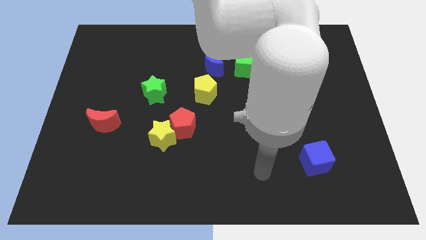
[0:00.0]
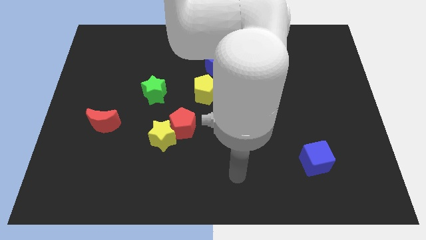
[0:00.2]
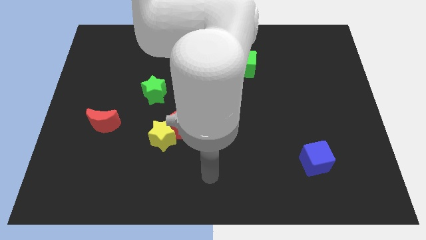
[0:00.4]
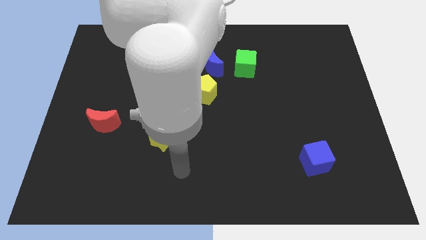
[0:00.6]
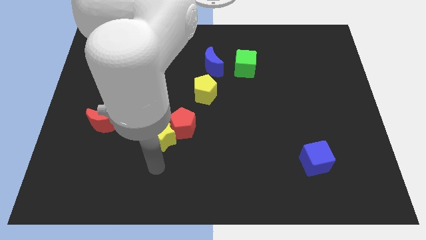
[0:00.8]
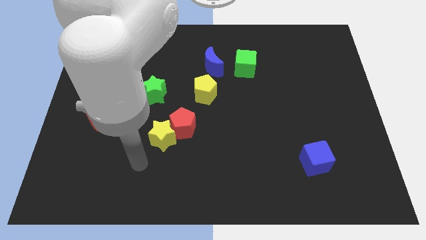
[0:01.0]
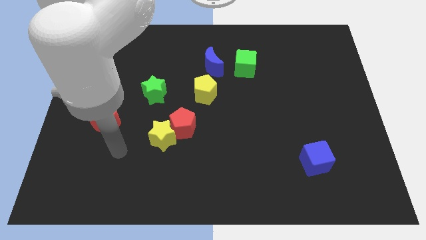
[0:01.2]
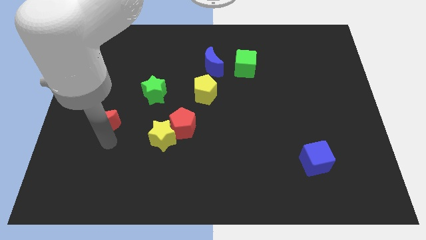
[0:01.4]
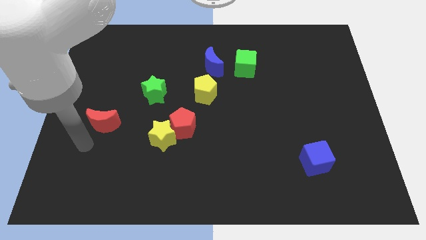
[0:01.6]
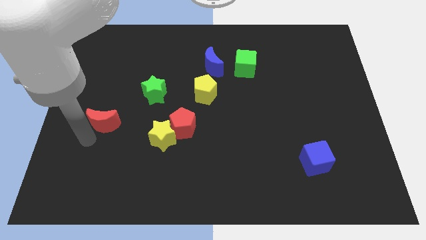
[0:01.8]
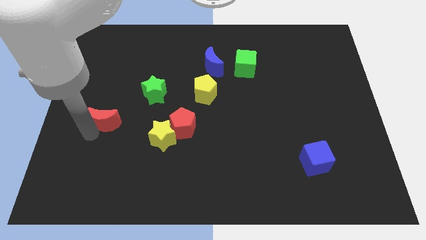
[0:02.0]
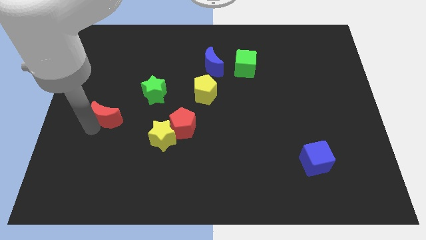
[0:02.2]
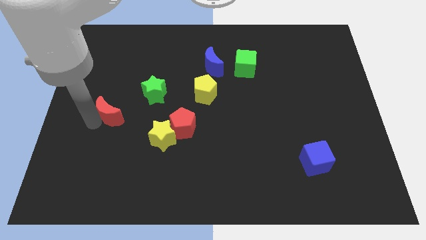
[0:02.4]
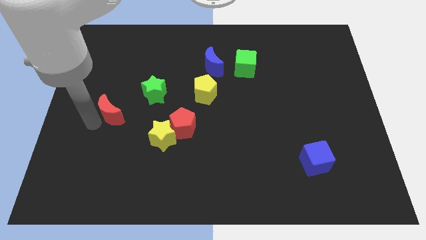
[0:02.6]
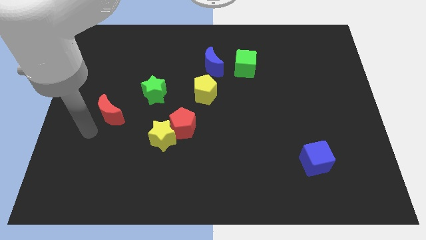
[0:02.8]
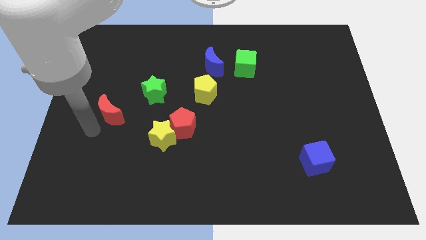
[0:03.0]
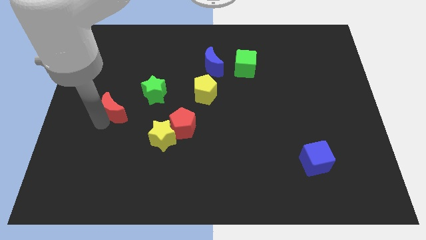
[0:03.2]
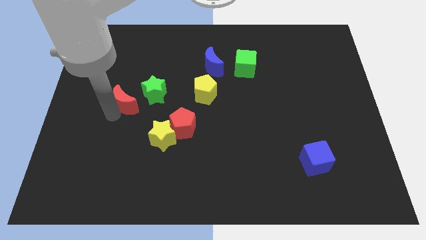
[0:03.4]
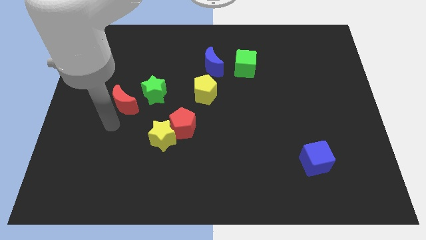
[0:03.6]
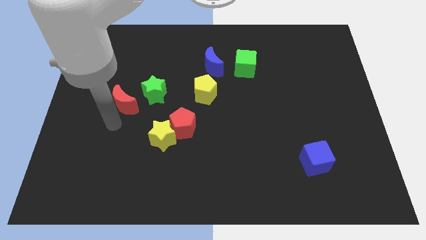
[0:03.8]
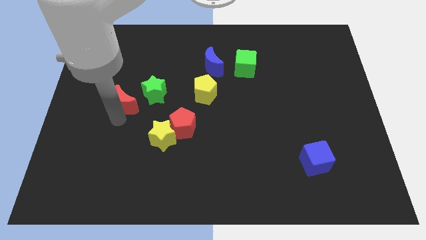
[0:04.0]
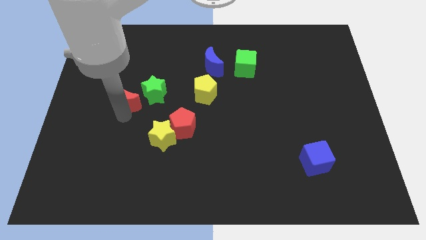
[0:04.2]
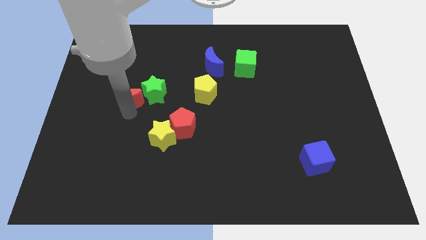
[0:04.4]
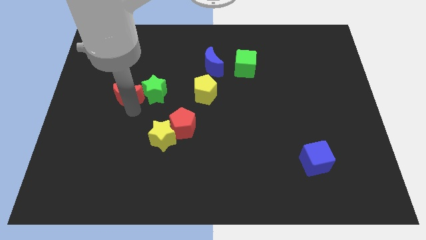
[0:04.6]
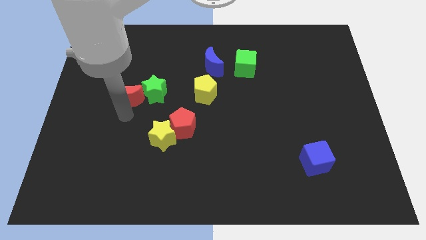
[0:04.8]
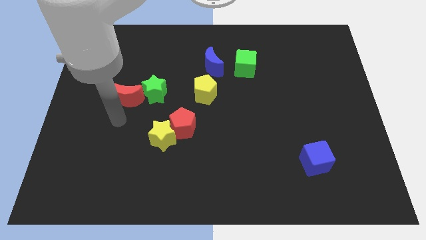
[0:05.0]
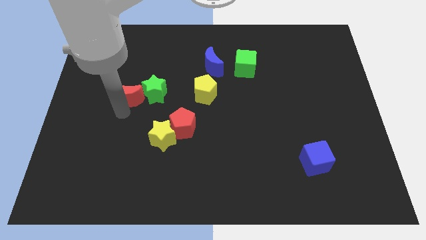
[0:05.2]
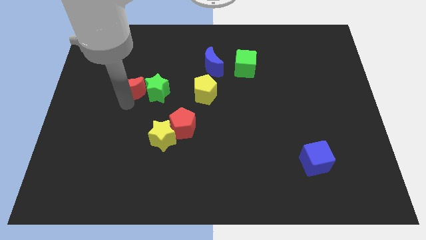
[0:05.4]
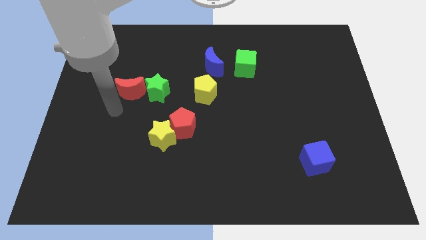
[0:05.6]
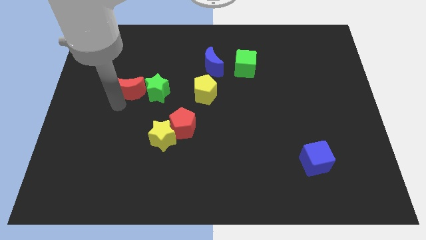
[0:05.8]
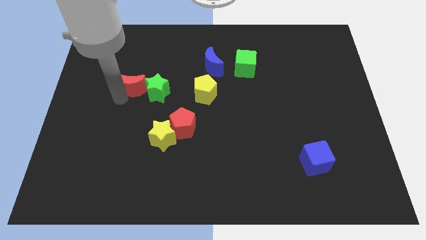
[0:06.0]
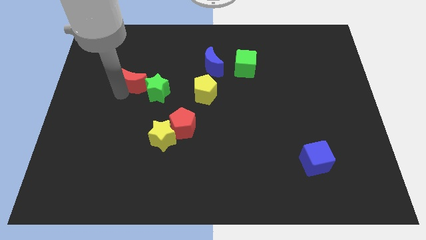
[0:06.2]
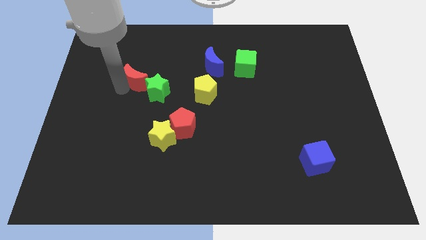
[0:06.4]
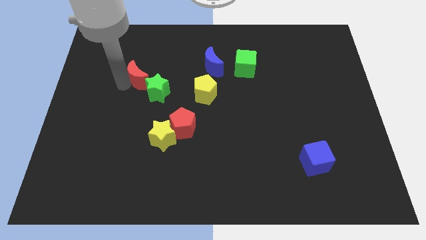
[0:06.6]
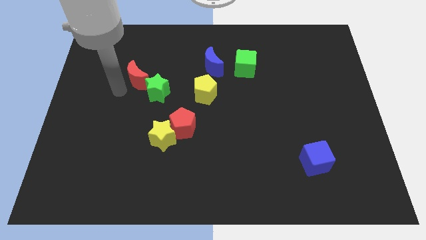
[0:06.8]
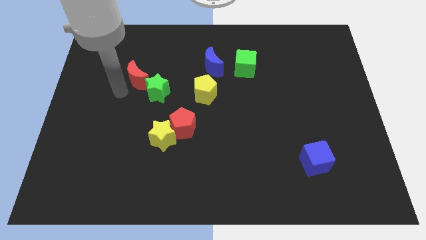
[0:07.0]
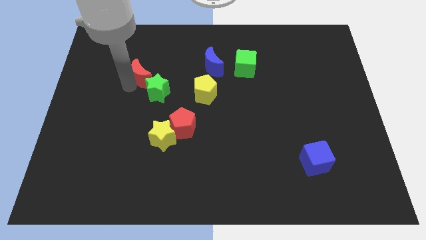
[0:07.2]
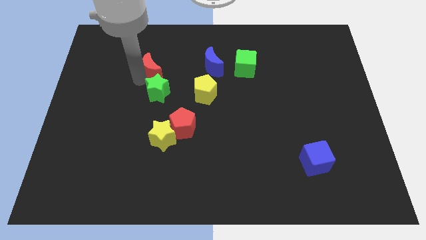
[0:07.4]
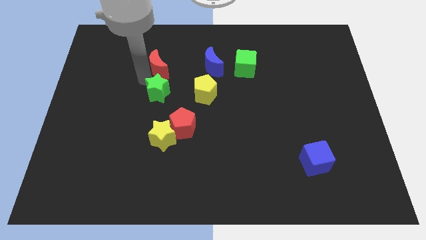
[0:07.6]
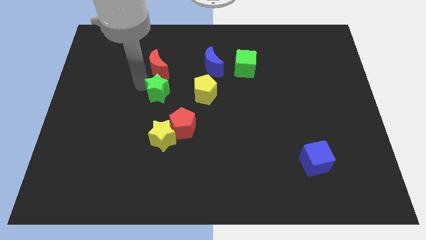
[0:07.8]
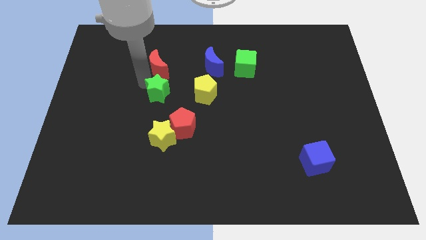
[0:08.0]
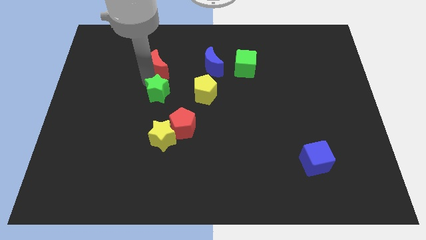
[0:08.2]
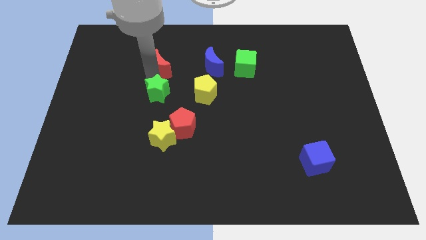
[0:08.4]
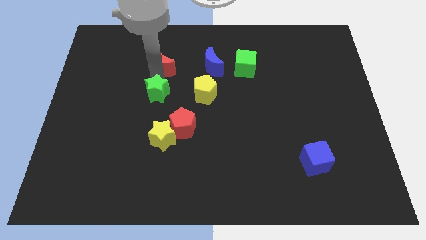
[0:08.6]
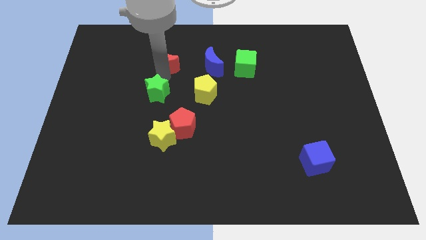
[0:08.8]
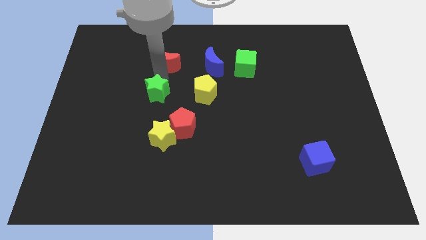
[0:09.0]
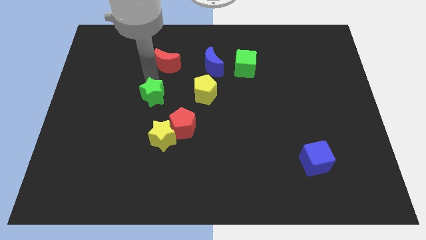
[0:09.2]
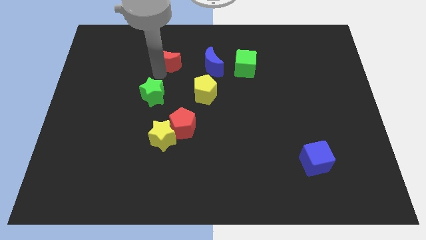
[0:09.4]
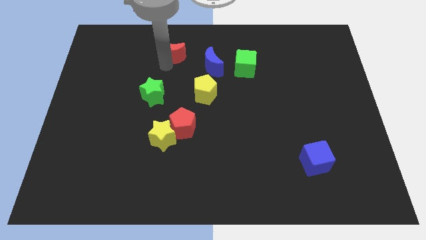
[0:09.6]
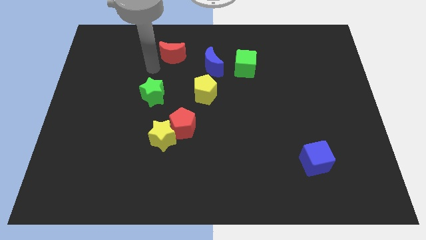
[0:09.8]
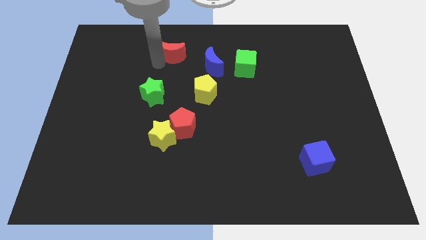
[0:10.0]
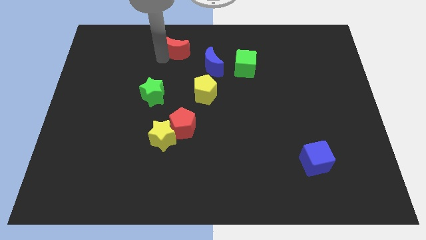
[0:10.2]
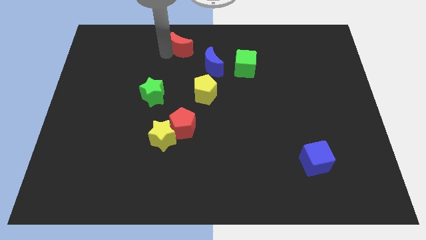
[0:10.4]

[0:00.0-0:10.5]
slide the red moon to the top side

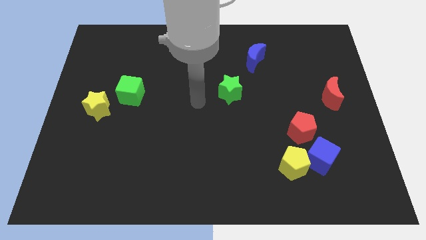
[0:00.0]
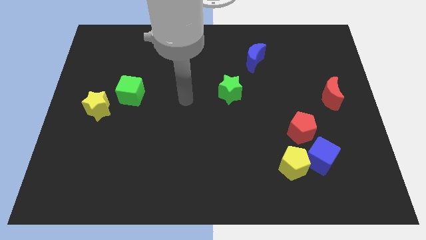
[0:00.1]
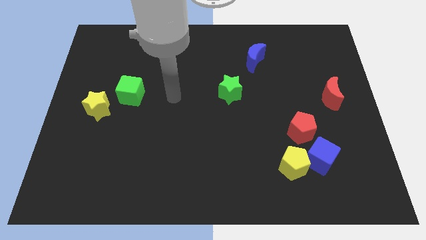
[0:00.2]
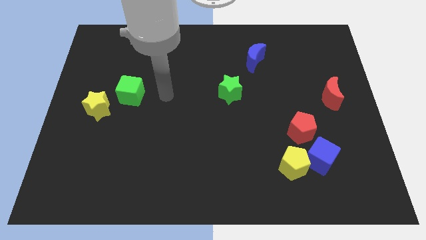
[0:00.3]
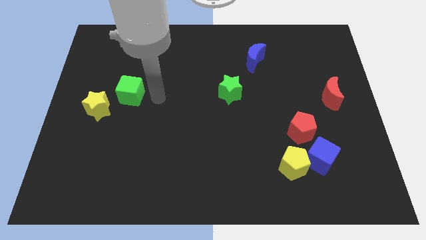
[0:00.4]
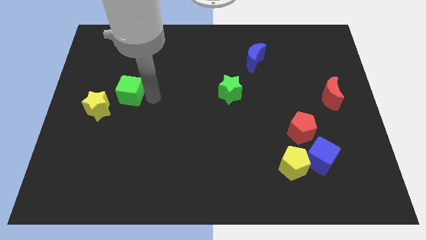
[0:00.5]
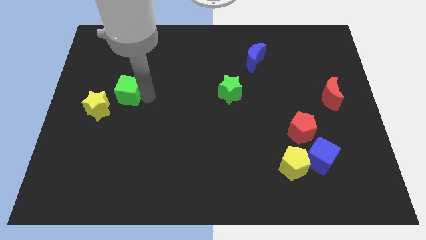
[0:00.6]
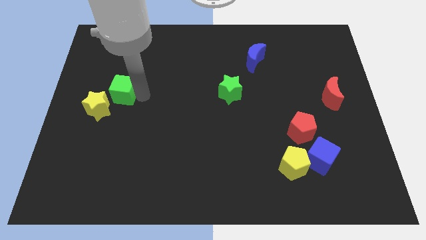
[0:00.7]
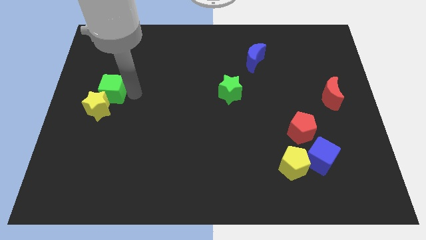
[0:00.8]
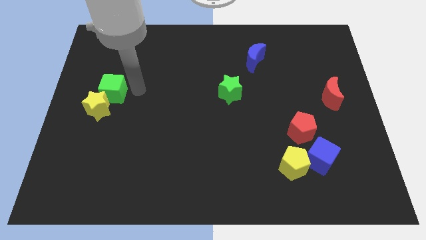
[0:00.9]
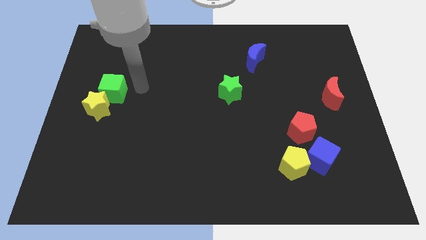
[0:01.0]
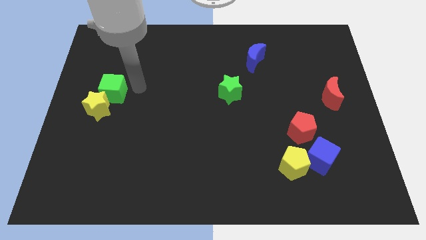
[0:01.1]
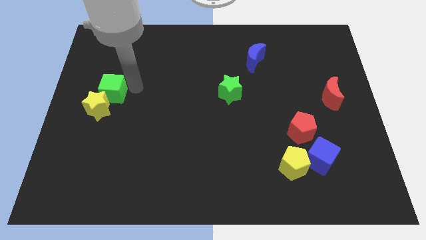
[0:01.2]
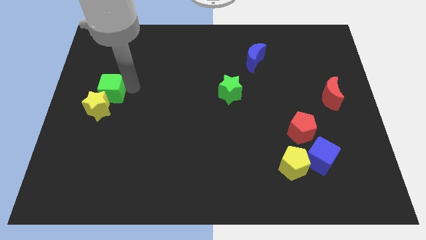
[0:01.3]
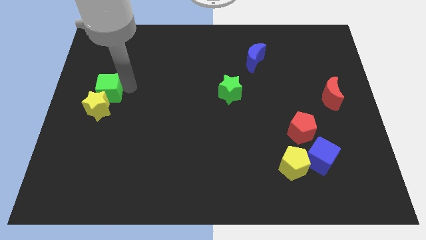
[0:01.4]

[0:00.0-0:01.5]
move the green cube to the left side of the board
